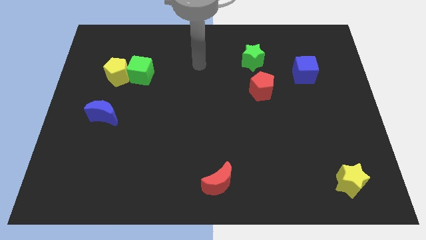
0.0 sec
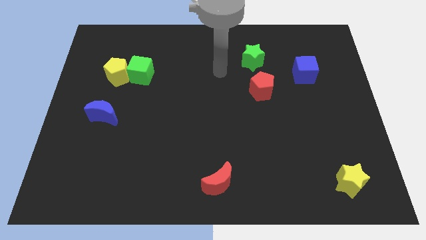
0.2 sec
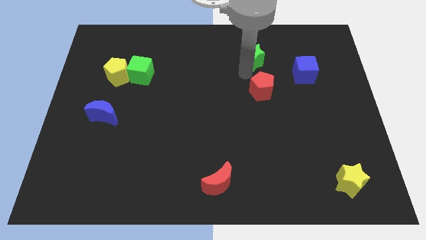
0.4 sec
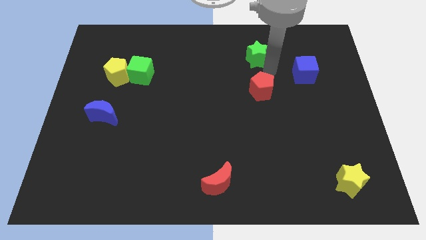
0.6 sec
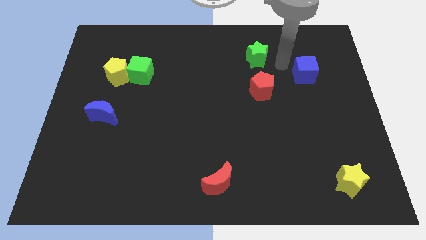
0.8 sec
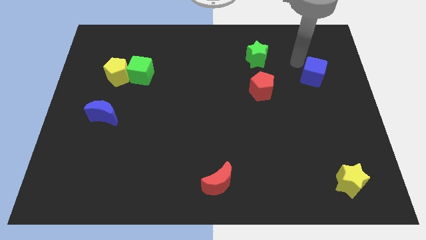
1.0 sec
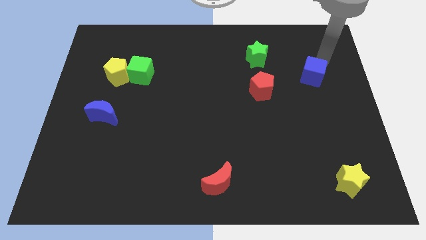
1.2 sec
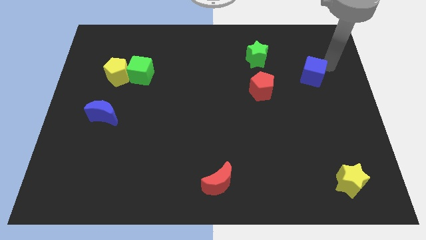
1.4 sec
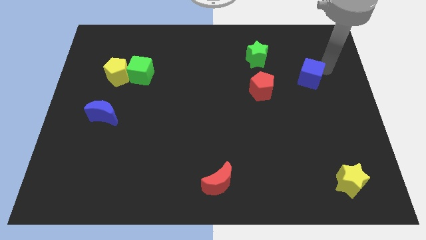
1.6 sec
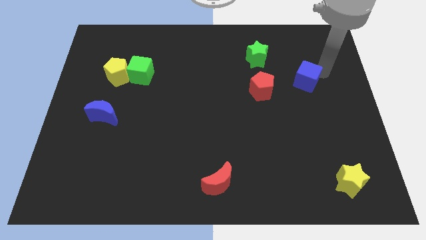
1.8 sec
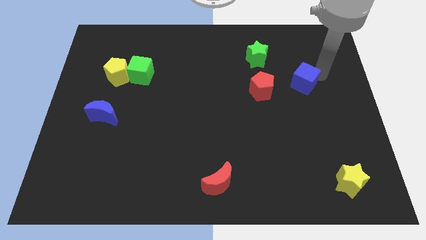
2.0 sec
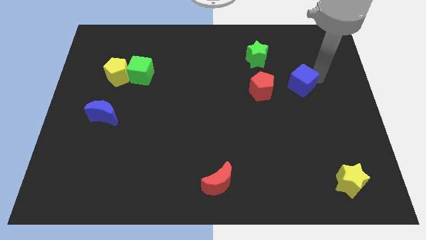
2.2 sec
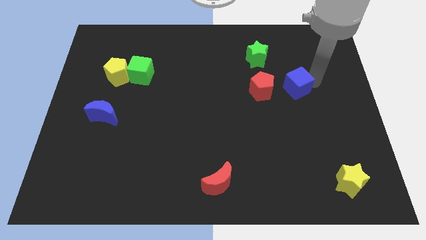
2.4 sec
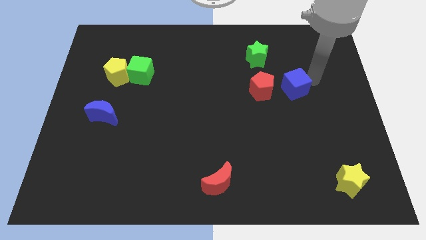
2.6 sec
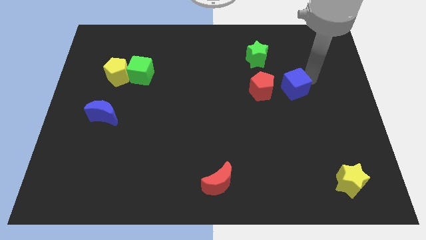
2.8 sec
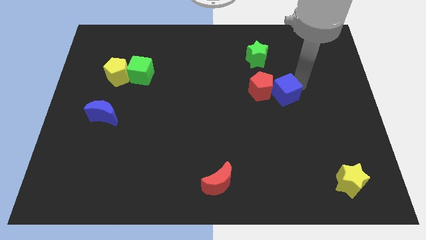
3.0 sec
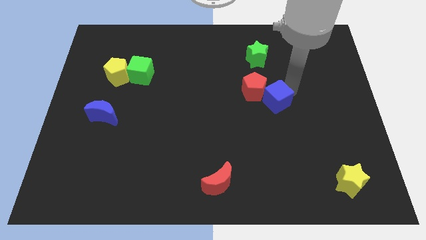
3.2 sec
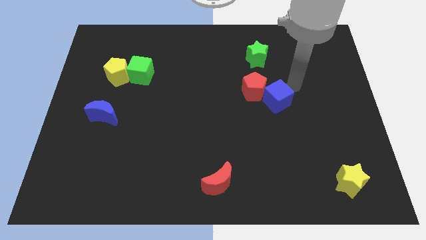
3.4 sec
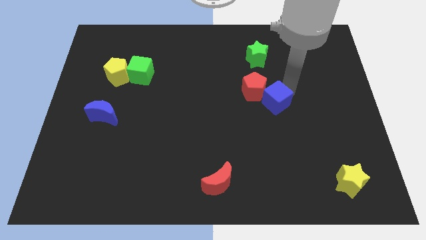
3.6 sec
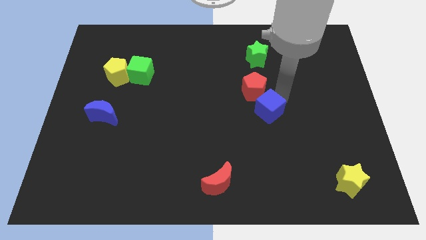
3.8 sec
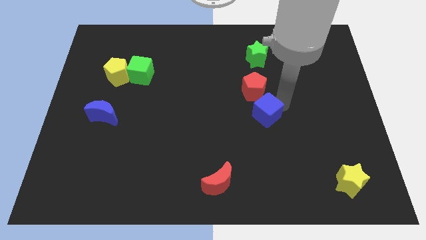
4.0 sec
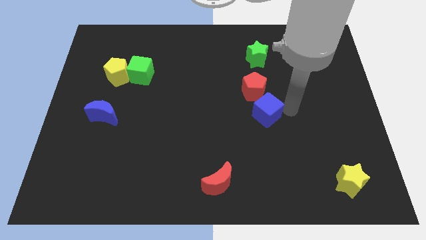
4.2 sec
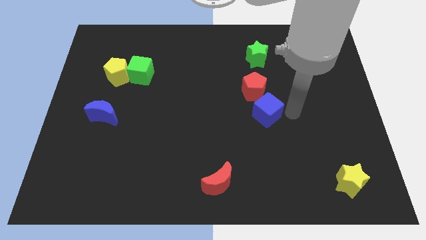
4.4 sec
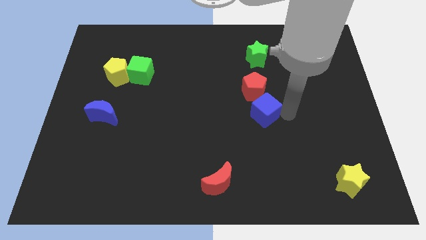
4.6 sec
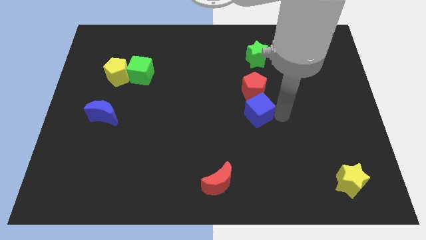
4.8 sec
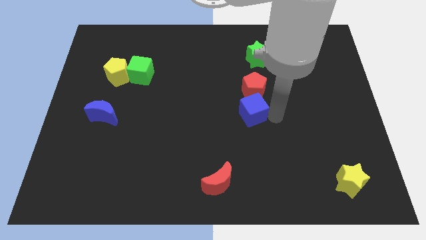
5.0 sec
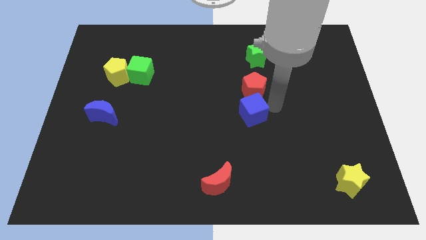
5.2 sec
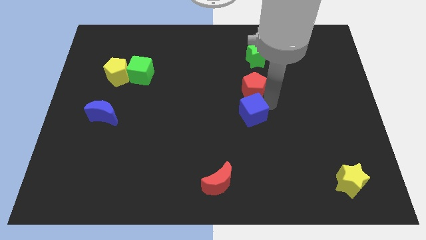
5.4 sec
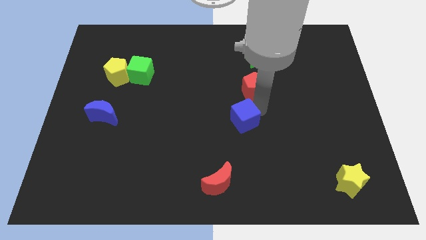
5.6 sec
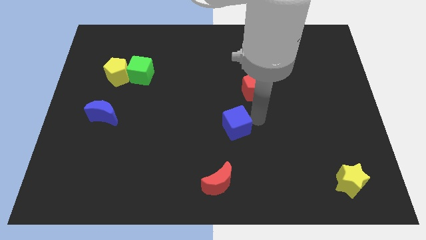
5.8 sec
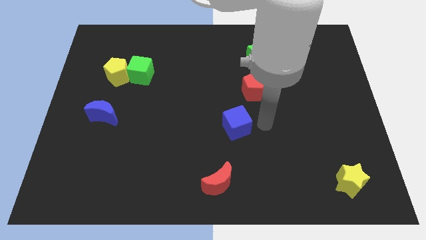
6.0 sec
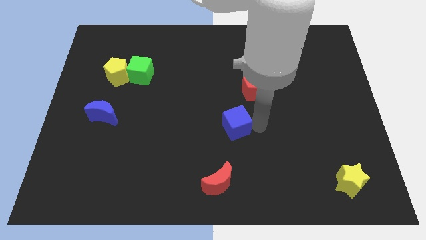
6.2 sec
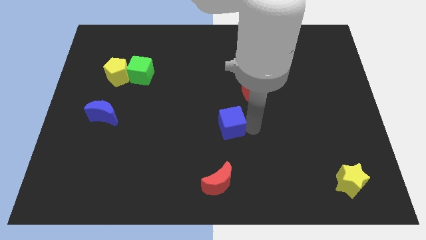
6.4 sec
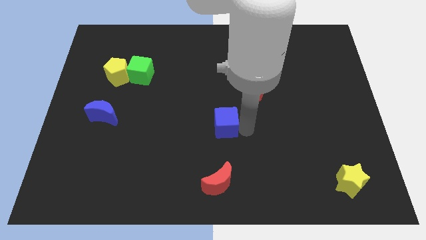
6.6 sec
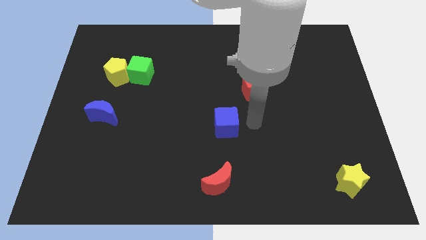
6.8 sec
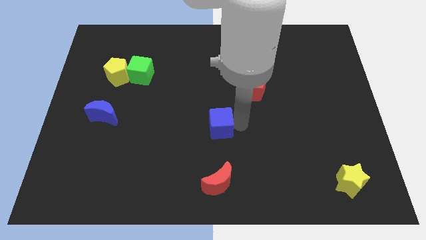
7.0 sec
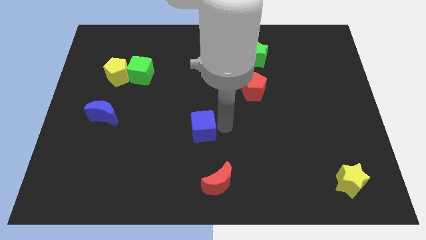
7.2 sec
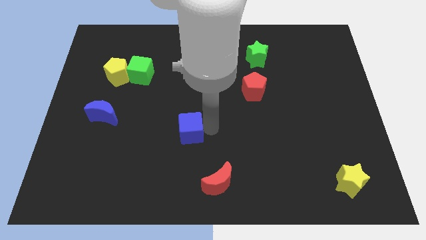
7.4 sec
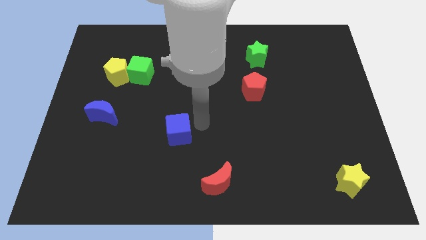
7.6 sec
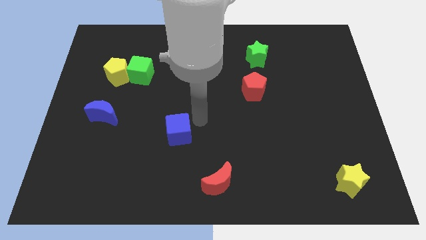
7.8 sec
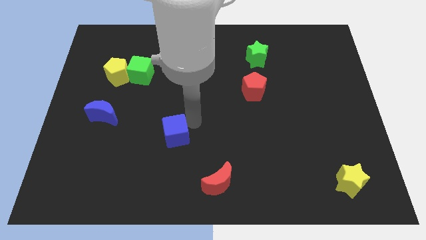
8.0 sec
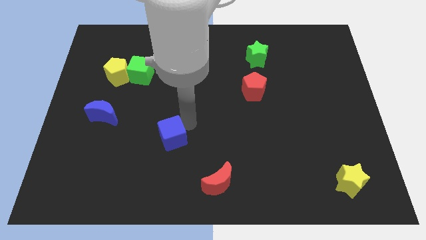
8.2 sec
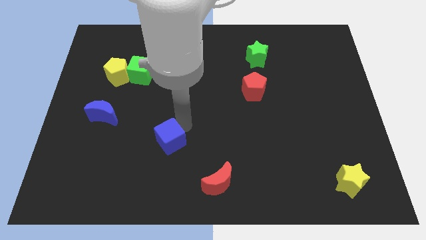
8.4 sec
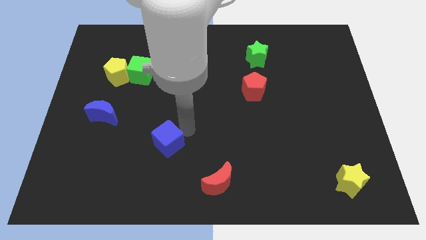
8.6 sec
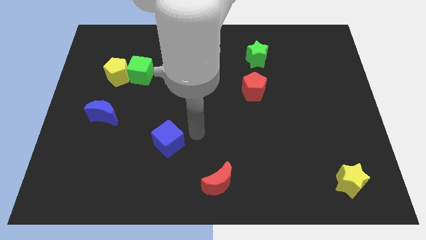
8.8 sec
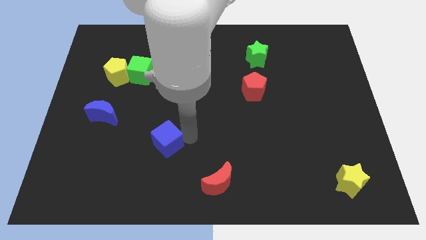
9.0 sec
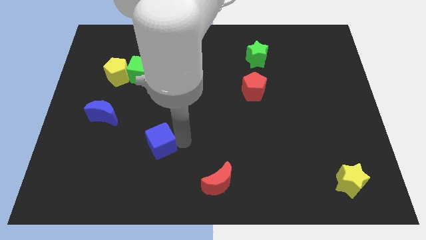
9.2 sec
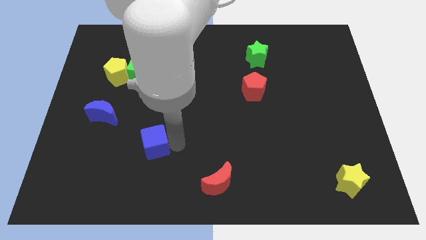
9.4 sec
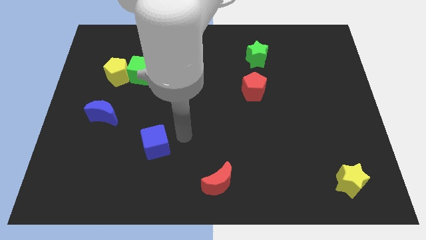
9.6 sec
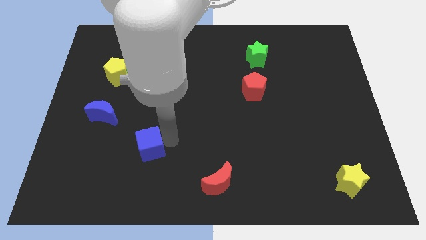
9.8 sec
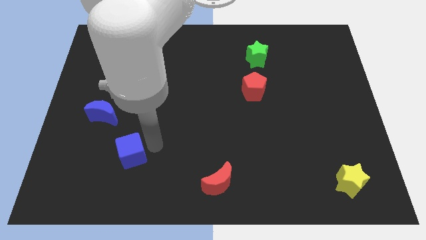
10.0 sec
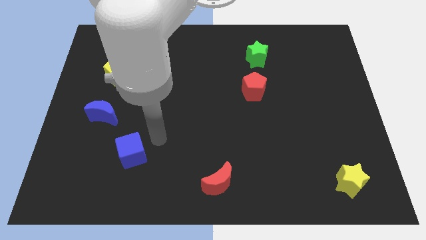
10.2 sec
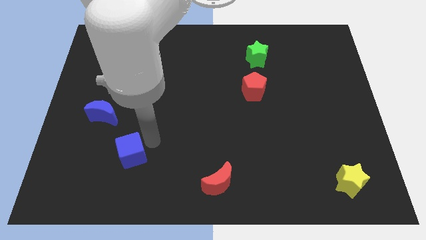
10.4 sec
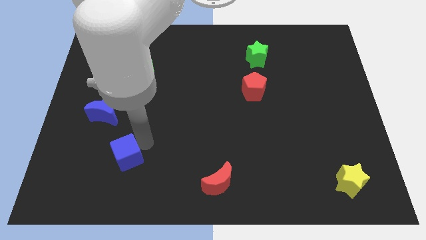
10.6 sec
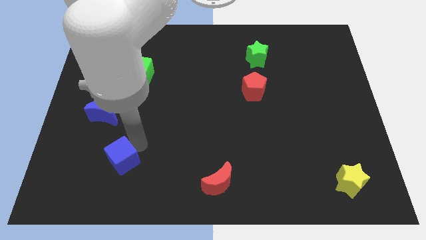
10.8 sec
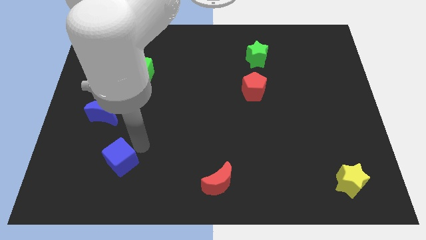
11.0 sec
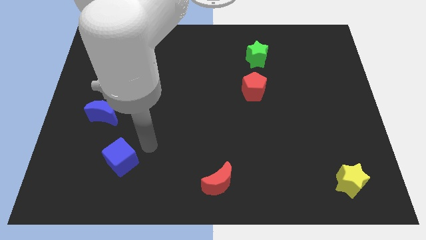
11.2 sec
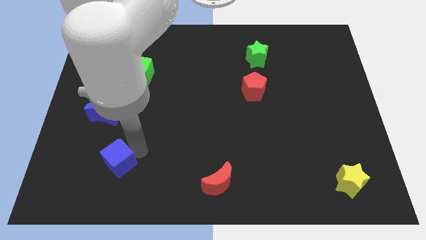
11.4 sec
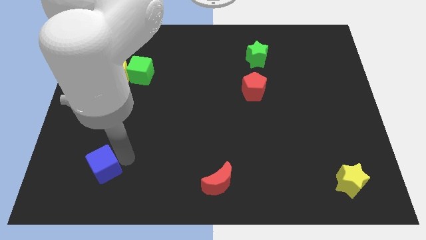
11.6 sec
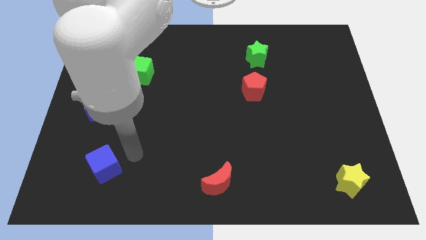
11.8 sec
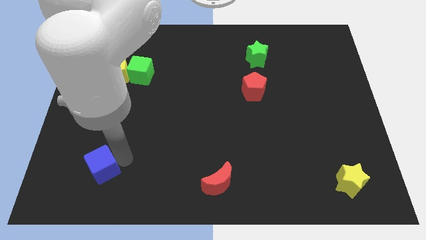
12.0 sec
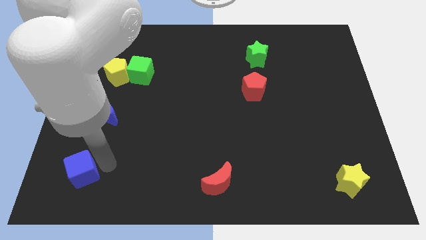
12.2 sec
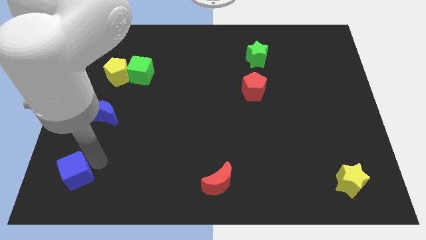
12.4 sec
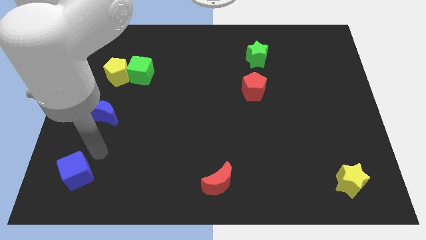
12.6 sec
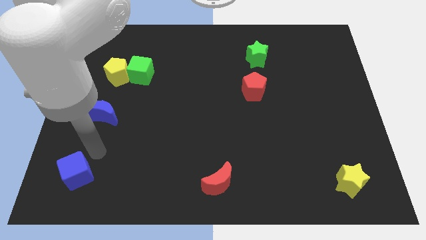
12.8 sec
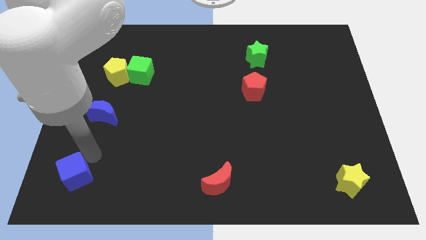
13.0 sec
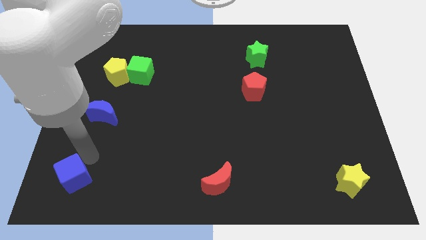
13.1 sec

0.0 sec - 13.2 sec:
slide the blue cube to the bottom left
